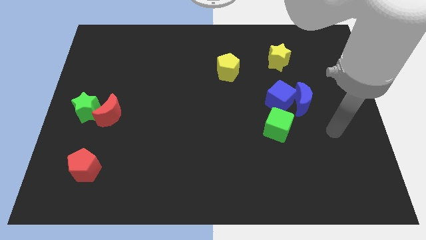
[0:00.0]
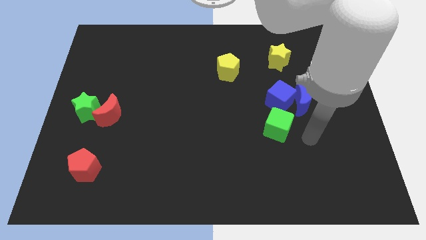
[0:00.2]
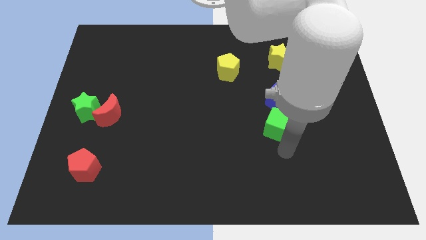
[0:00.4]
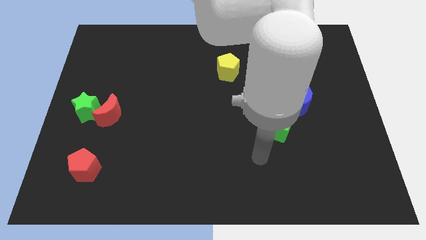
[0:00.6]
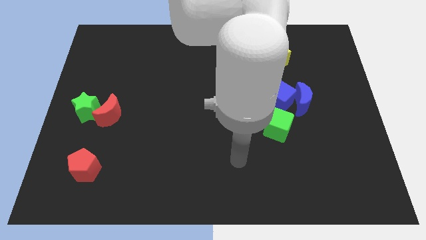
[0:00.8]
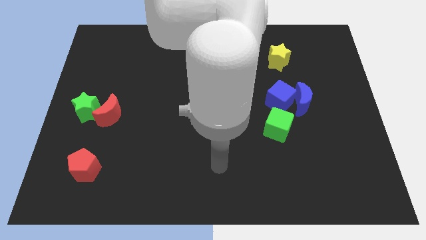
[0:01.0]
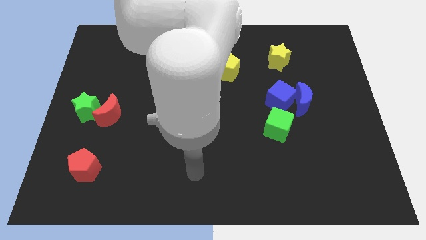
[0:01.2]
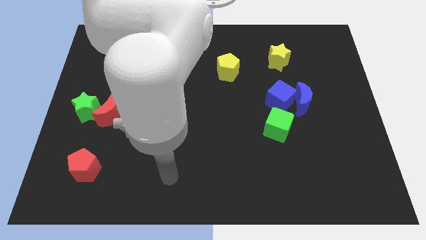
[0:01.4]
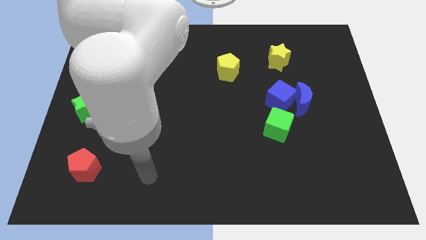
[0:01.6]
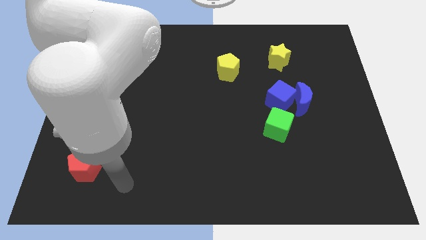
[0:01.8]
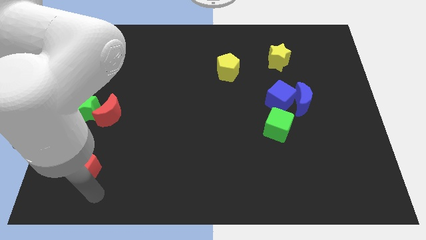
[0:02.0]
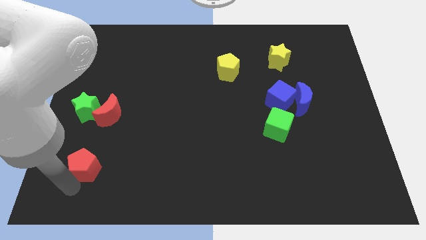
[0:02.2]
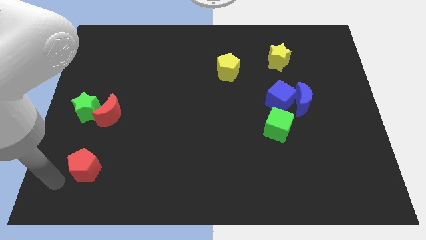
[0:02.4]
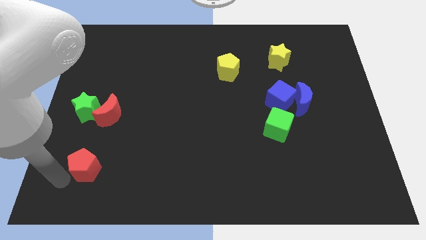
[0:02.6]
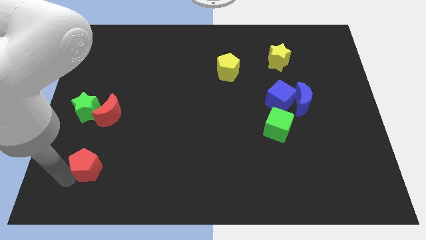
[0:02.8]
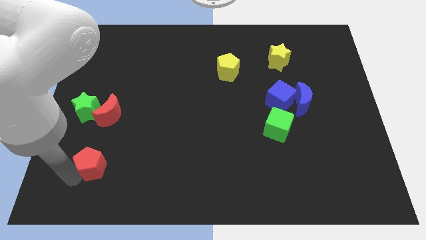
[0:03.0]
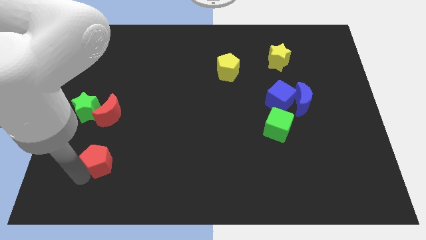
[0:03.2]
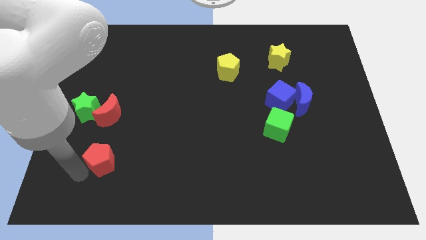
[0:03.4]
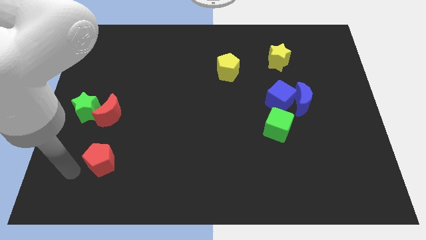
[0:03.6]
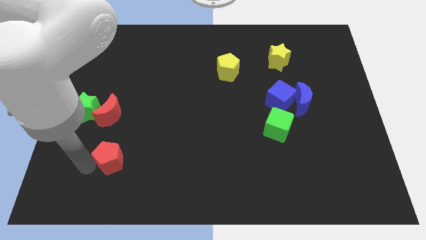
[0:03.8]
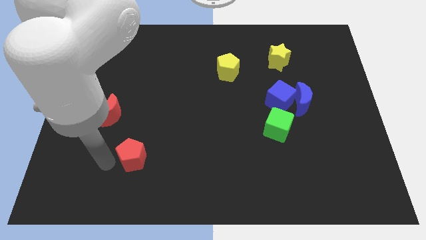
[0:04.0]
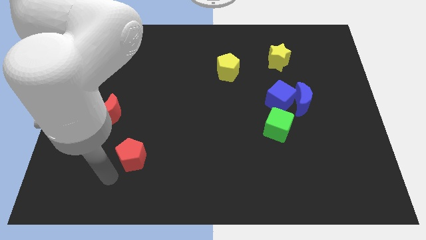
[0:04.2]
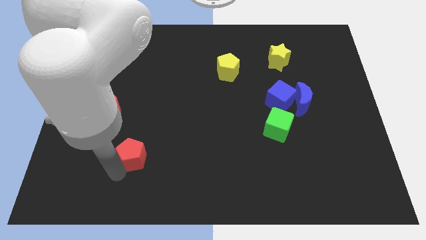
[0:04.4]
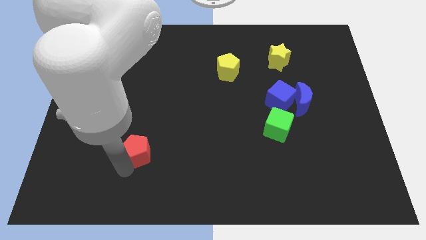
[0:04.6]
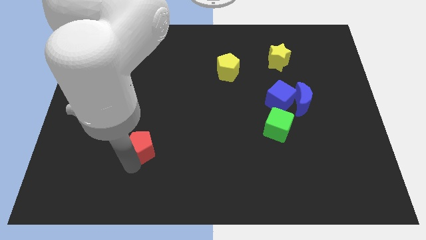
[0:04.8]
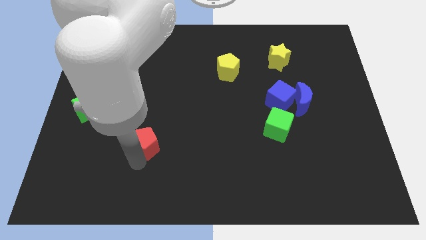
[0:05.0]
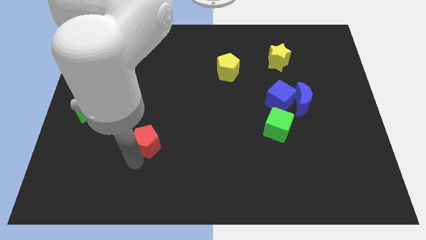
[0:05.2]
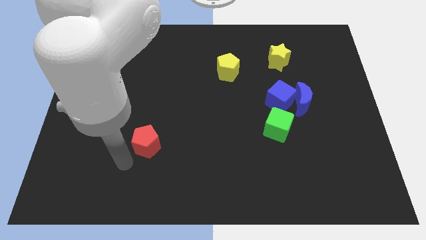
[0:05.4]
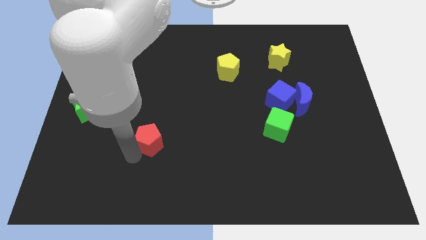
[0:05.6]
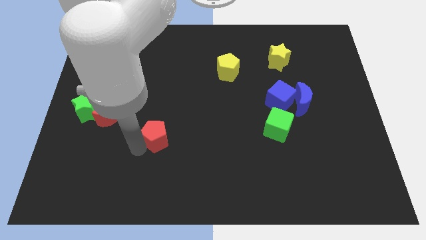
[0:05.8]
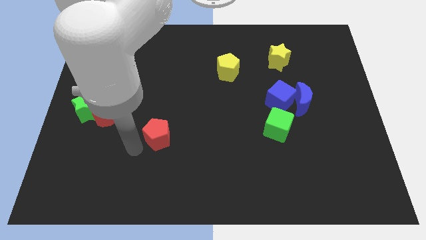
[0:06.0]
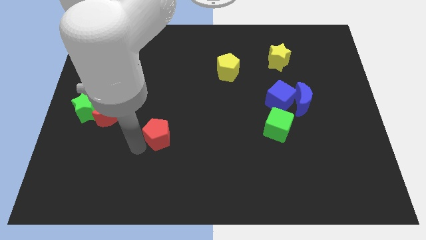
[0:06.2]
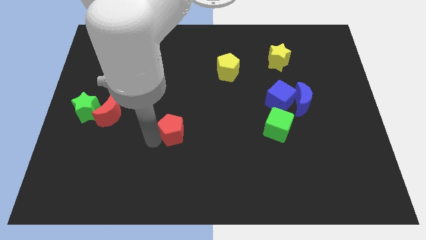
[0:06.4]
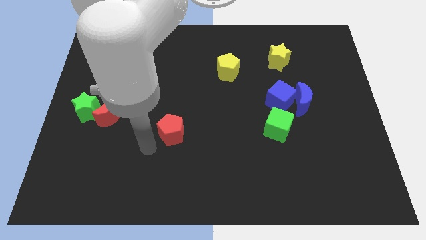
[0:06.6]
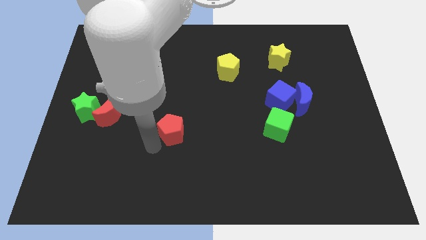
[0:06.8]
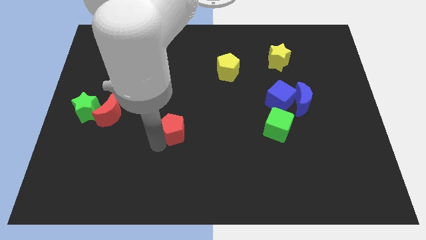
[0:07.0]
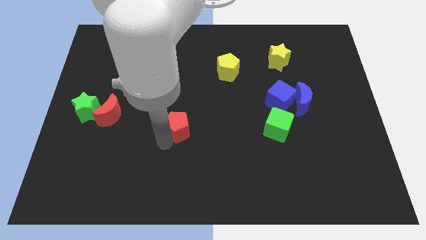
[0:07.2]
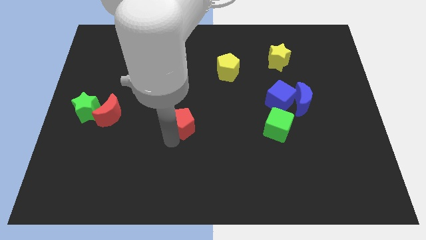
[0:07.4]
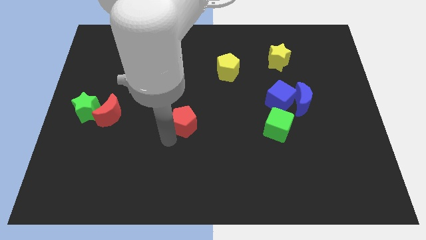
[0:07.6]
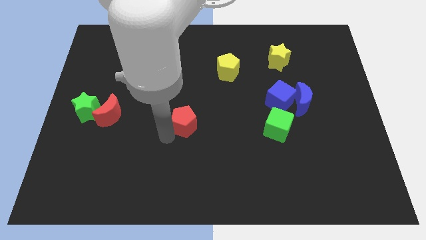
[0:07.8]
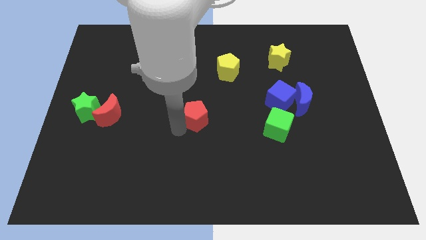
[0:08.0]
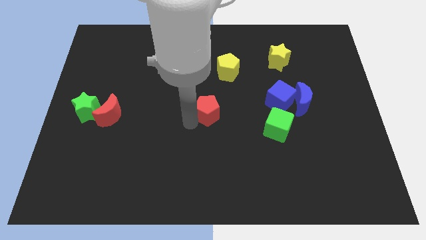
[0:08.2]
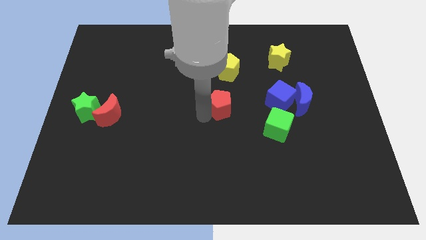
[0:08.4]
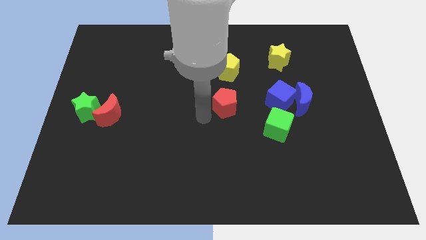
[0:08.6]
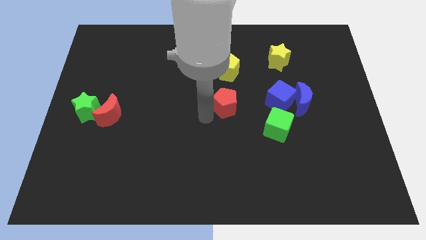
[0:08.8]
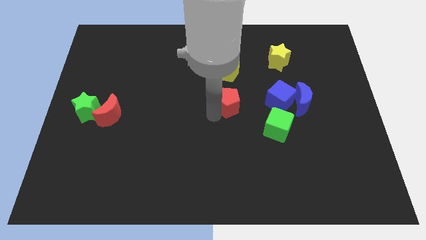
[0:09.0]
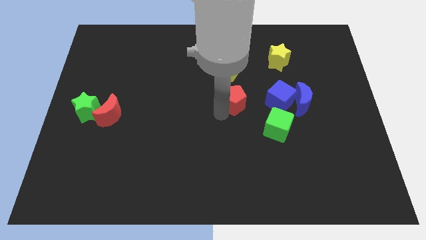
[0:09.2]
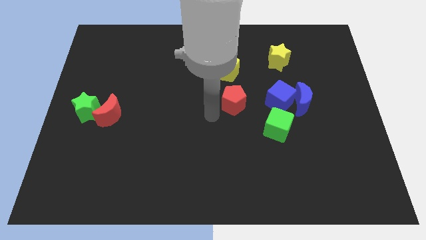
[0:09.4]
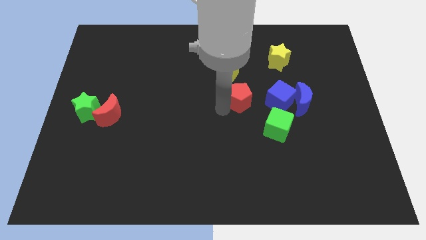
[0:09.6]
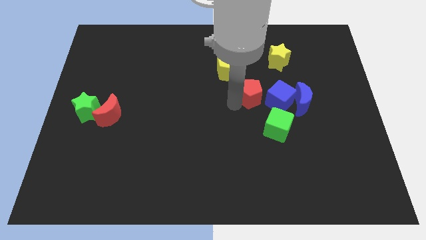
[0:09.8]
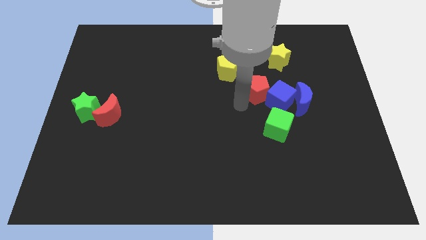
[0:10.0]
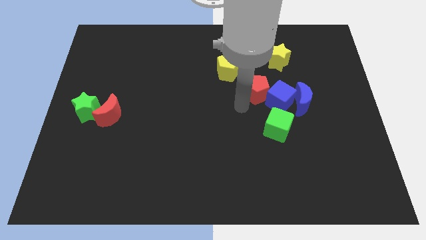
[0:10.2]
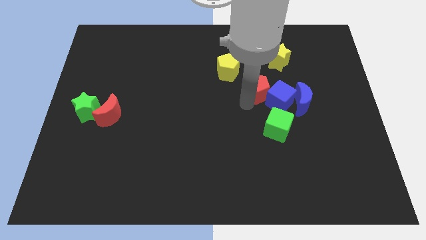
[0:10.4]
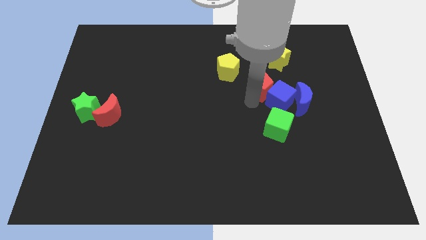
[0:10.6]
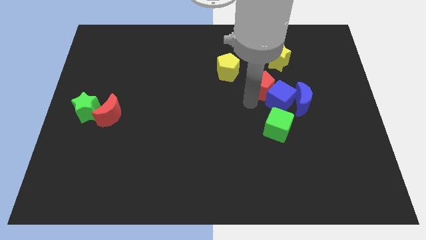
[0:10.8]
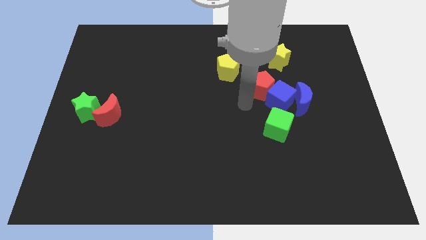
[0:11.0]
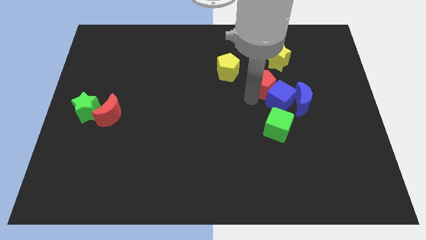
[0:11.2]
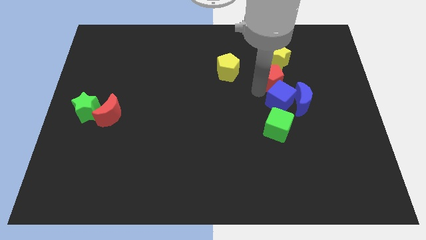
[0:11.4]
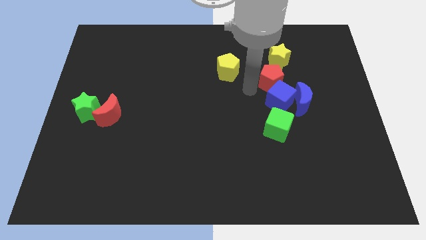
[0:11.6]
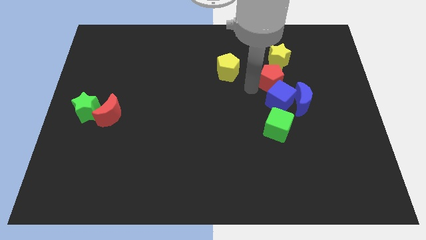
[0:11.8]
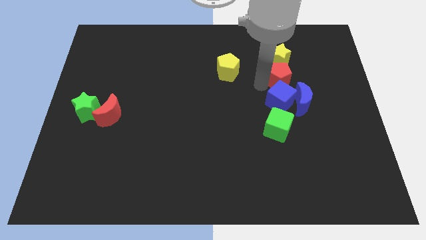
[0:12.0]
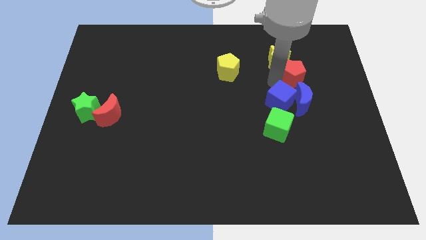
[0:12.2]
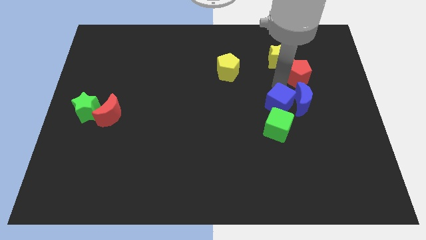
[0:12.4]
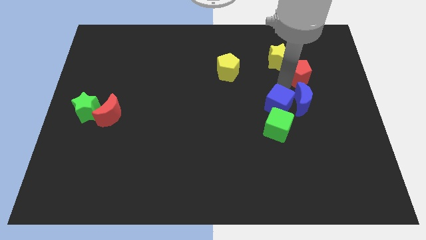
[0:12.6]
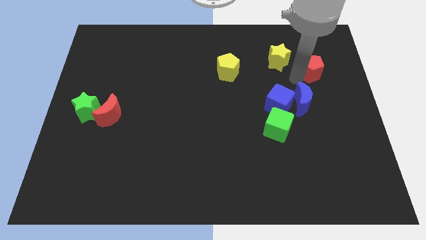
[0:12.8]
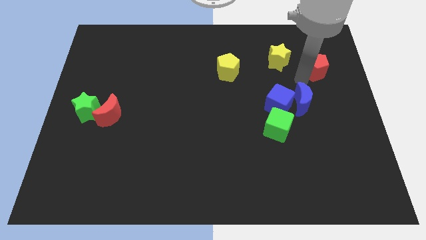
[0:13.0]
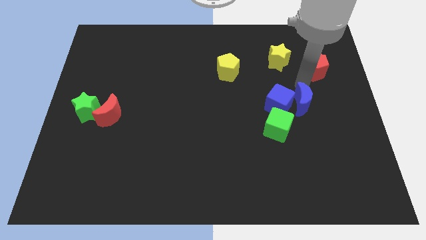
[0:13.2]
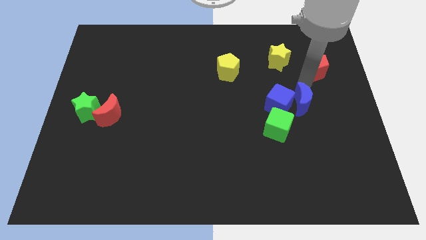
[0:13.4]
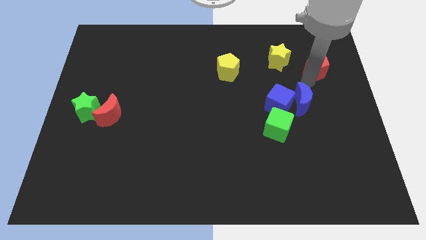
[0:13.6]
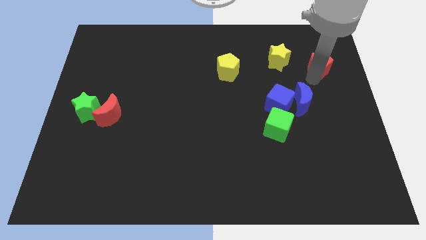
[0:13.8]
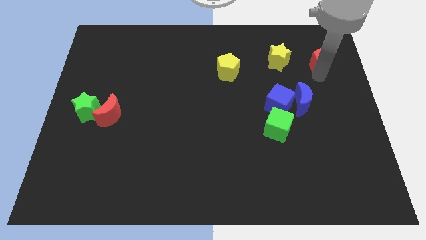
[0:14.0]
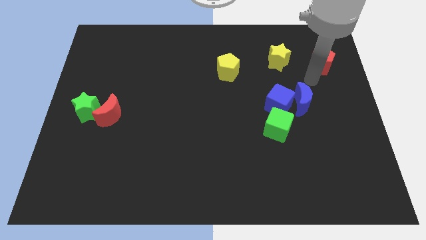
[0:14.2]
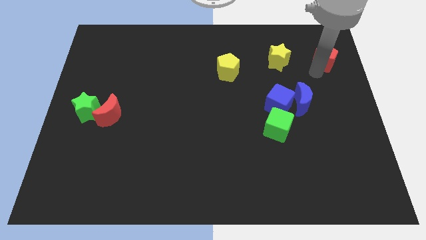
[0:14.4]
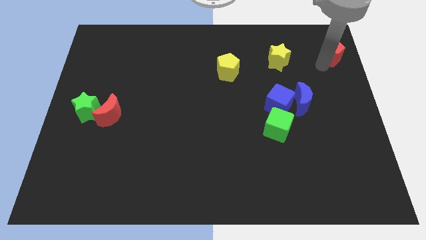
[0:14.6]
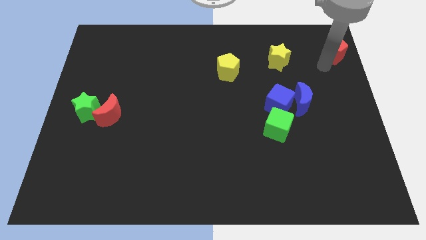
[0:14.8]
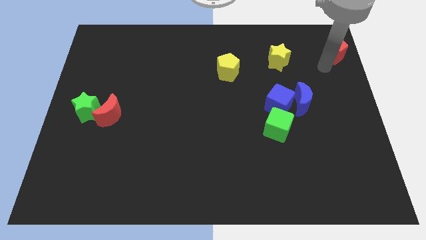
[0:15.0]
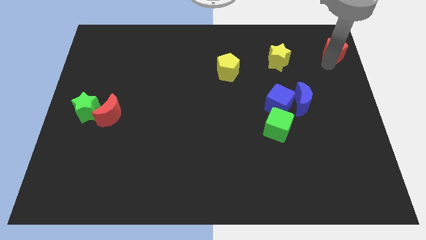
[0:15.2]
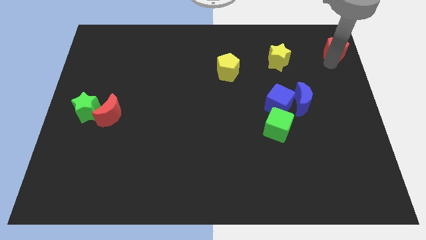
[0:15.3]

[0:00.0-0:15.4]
push the red pentagon to the top right of the board
